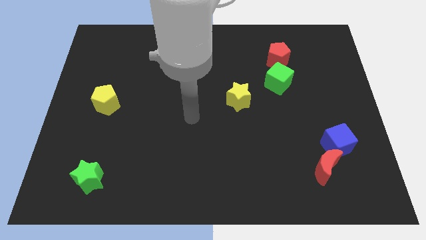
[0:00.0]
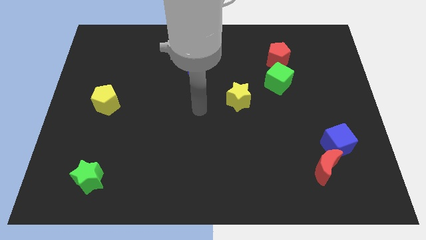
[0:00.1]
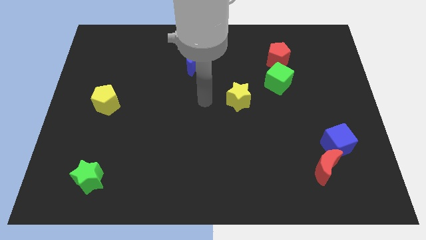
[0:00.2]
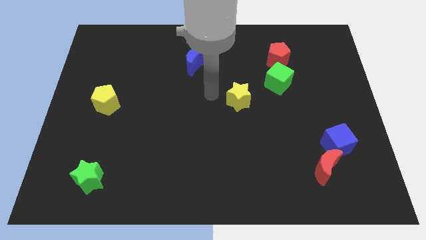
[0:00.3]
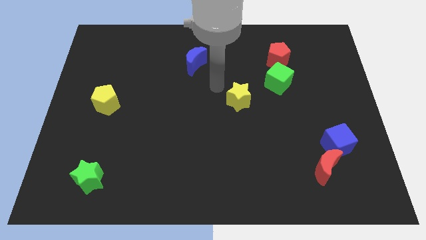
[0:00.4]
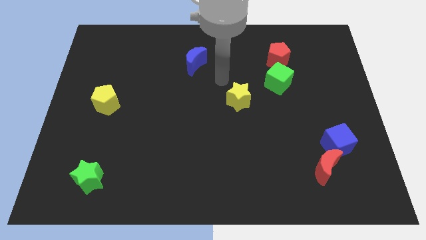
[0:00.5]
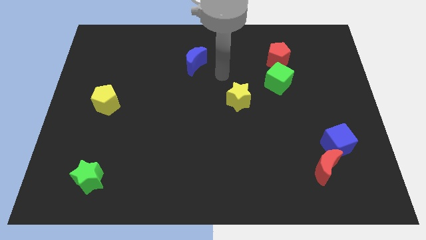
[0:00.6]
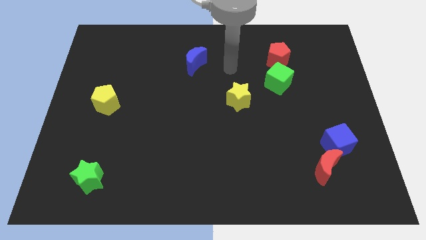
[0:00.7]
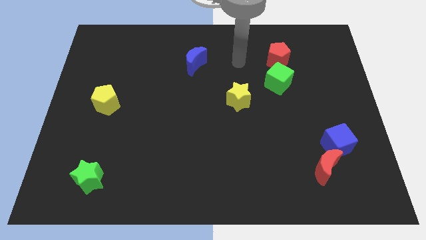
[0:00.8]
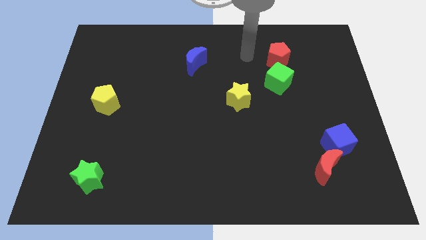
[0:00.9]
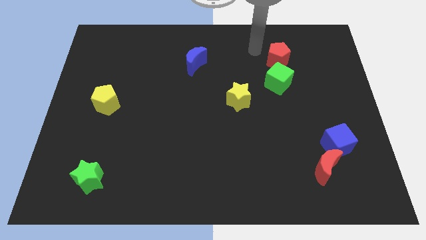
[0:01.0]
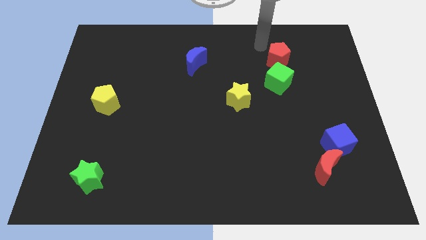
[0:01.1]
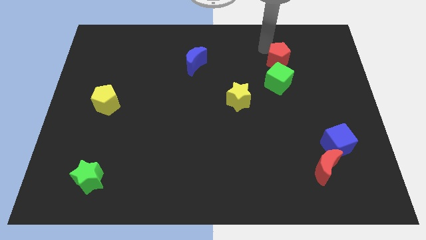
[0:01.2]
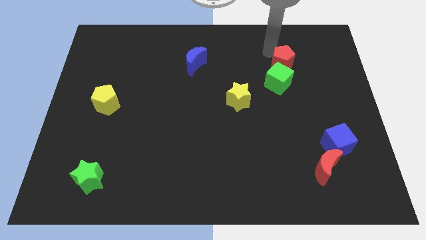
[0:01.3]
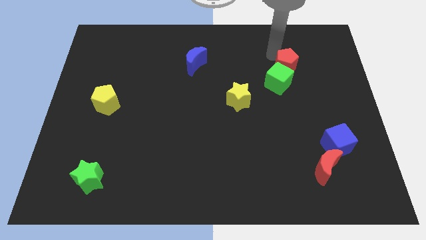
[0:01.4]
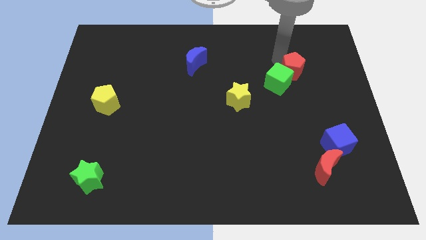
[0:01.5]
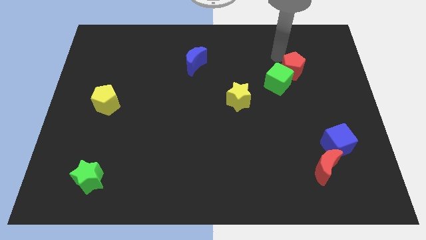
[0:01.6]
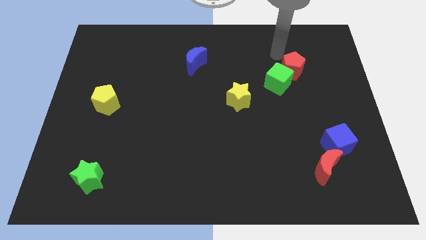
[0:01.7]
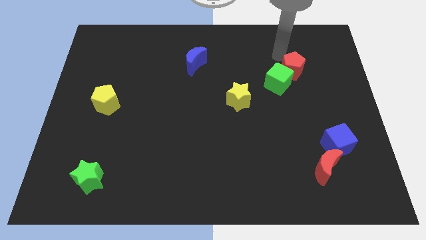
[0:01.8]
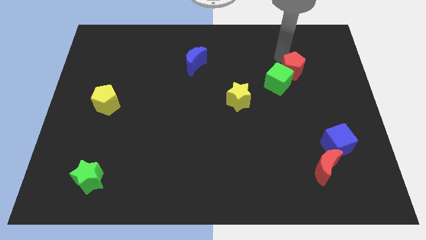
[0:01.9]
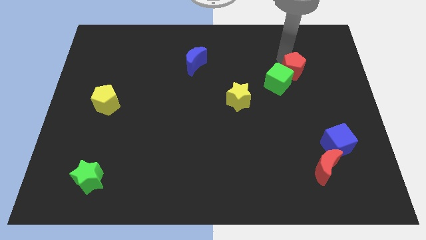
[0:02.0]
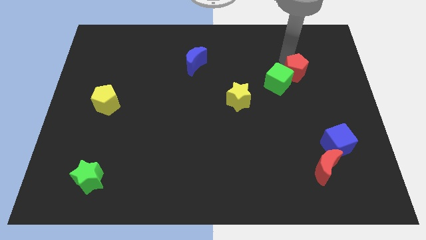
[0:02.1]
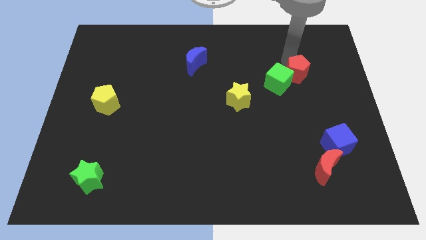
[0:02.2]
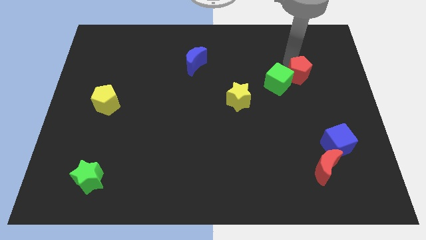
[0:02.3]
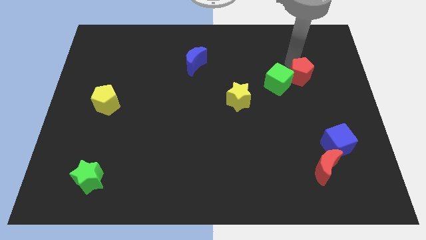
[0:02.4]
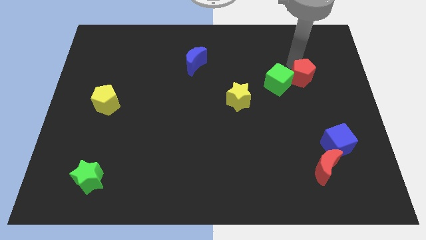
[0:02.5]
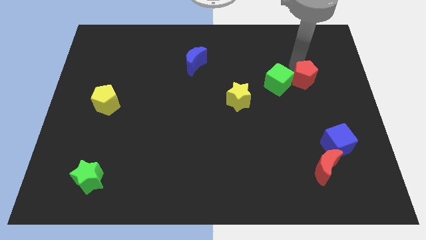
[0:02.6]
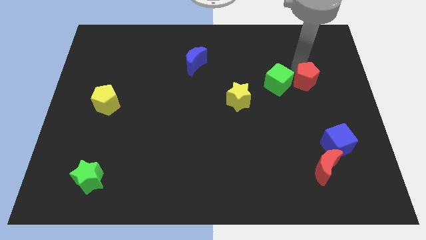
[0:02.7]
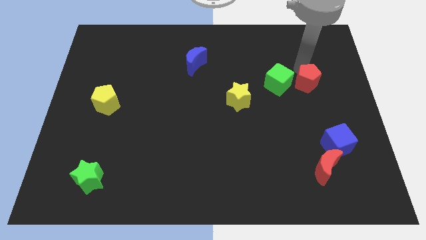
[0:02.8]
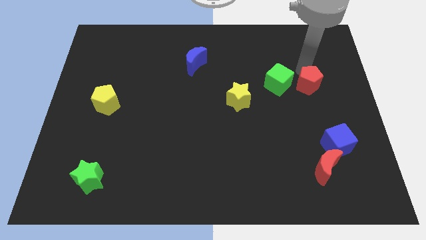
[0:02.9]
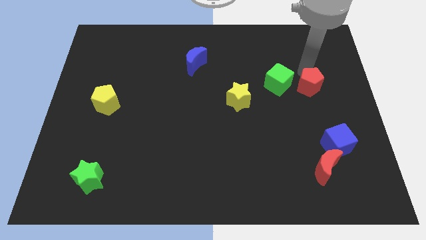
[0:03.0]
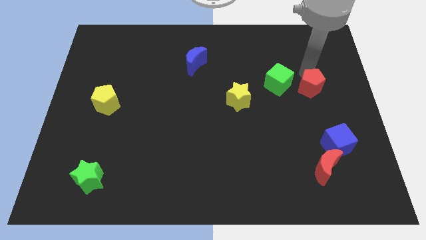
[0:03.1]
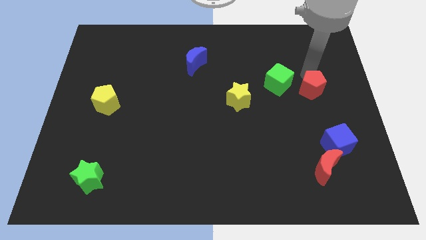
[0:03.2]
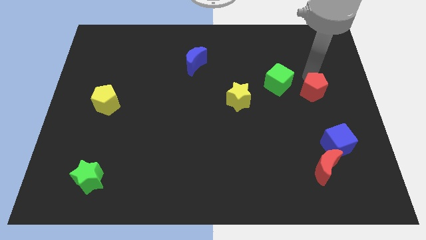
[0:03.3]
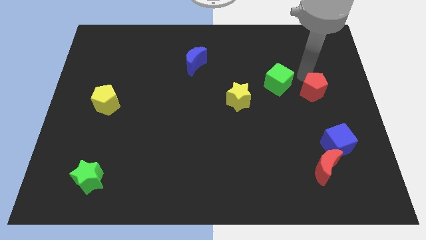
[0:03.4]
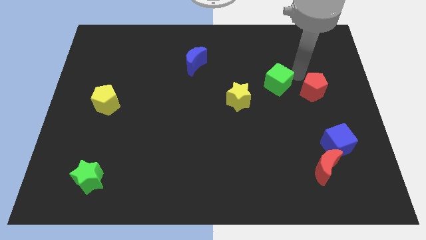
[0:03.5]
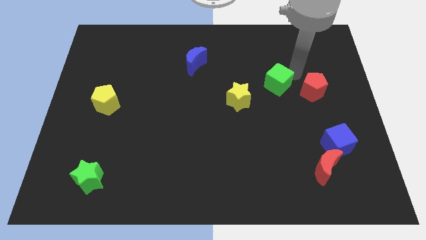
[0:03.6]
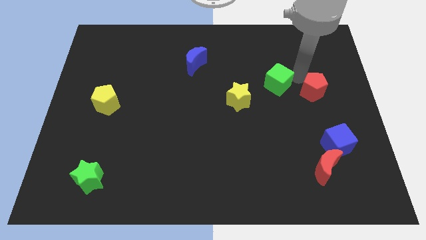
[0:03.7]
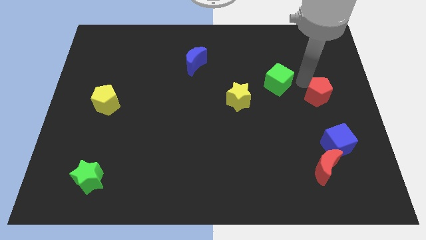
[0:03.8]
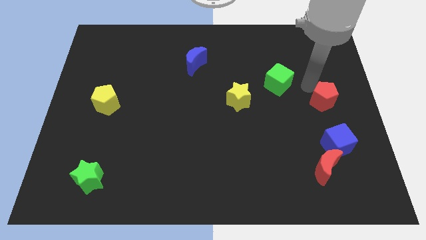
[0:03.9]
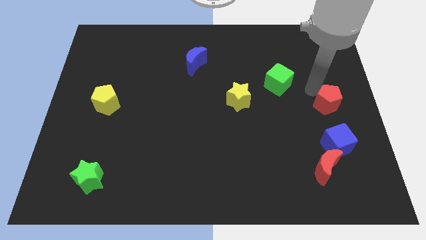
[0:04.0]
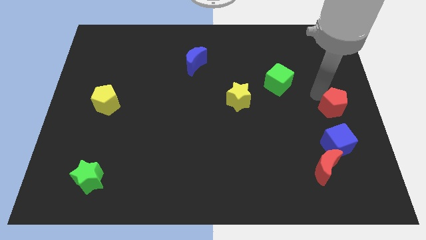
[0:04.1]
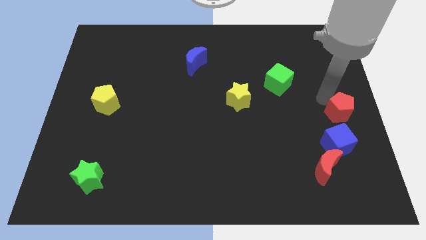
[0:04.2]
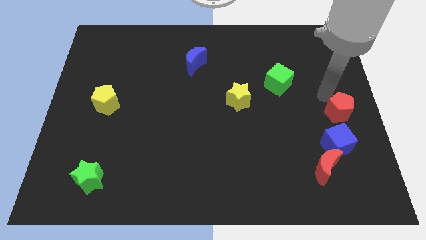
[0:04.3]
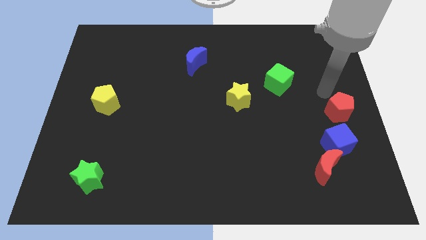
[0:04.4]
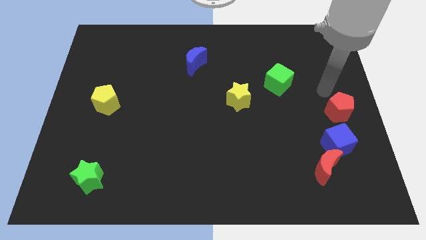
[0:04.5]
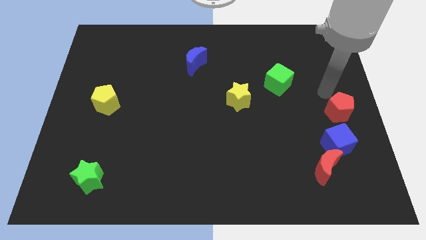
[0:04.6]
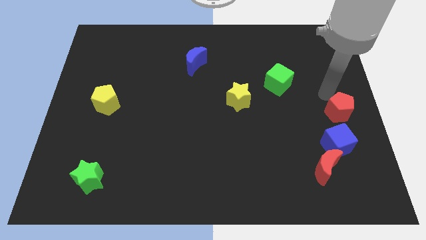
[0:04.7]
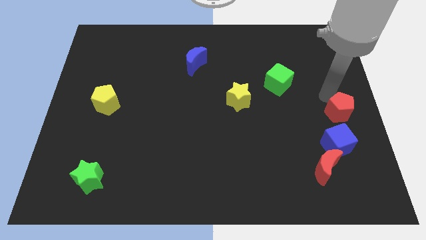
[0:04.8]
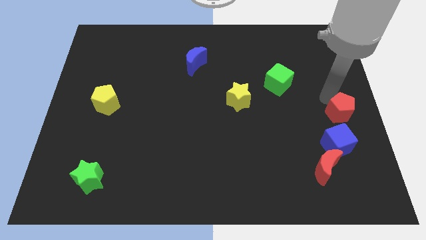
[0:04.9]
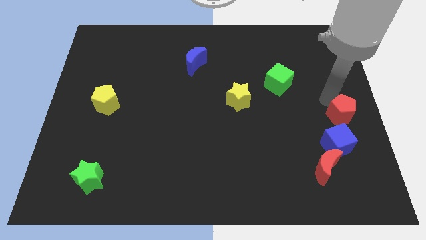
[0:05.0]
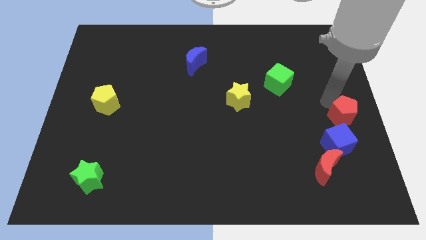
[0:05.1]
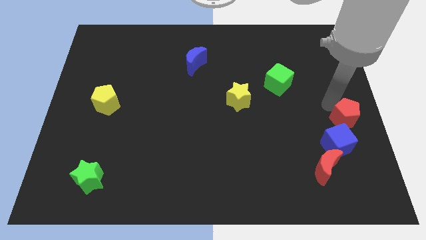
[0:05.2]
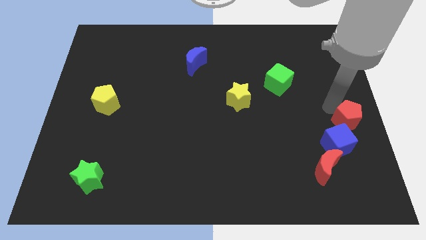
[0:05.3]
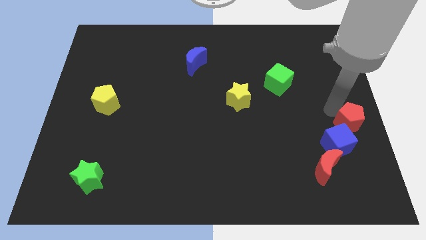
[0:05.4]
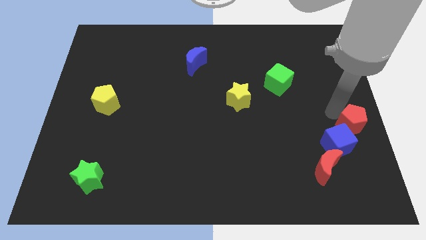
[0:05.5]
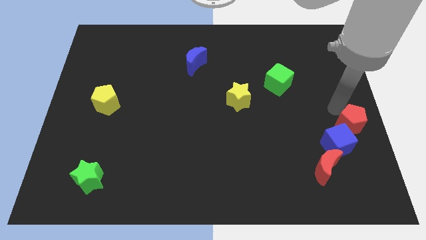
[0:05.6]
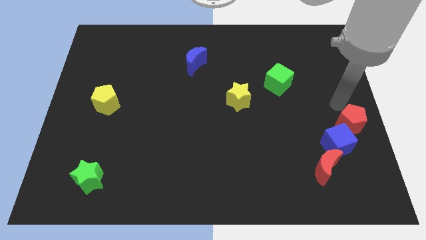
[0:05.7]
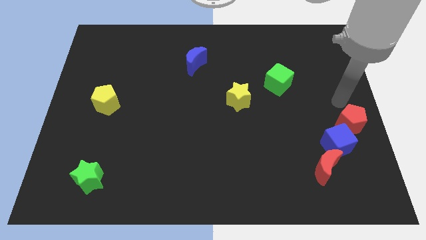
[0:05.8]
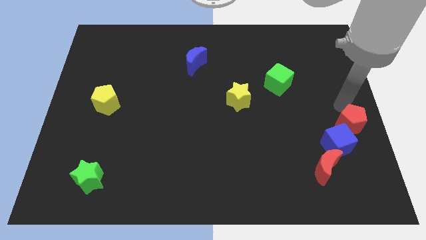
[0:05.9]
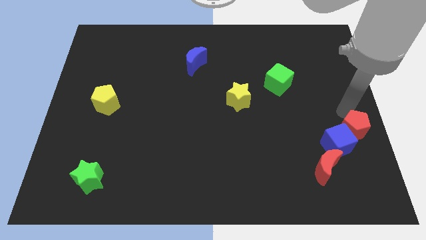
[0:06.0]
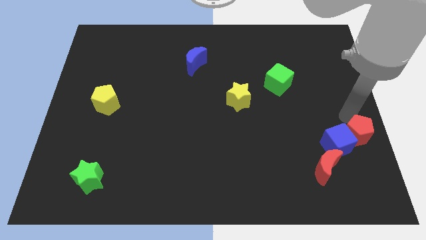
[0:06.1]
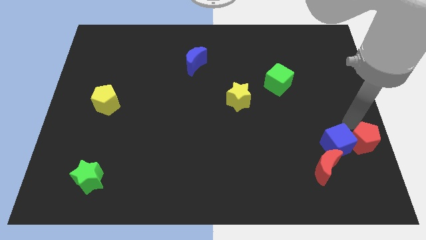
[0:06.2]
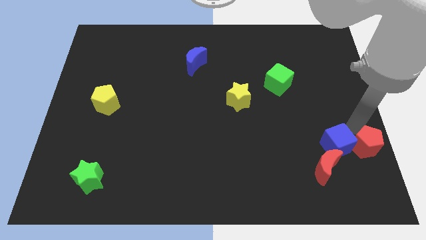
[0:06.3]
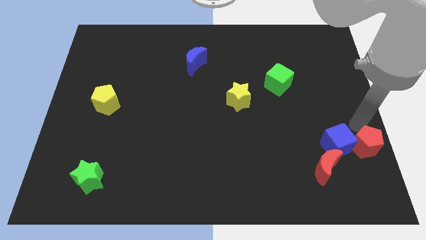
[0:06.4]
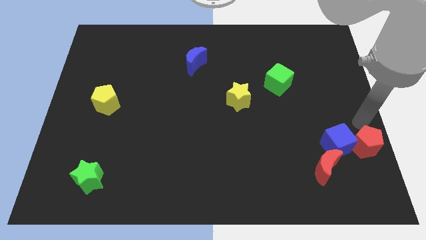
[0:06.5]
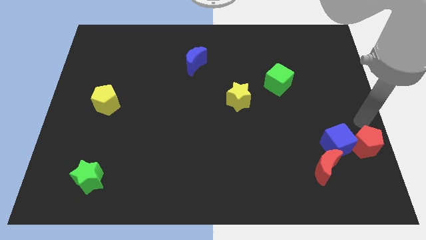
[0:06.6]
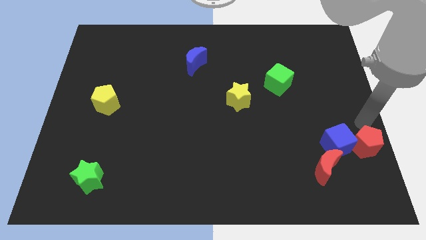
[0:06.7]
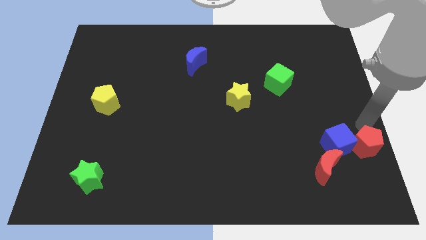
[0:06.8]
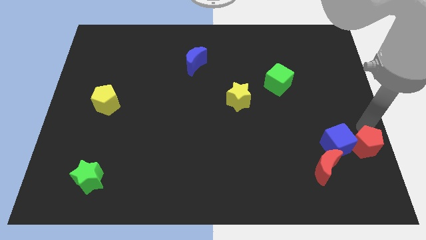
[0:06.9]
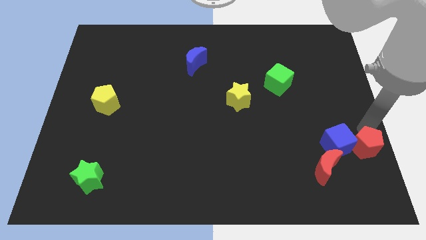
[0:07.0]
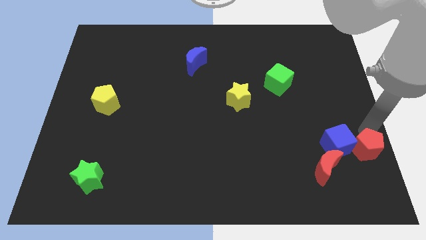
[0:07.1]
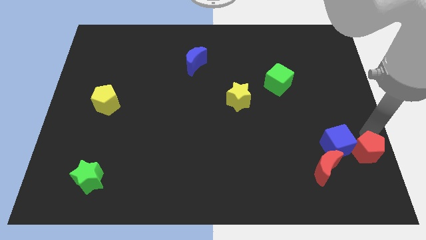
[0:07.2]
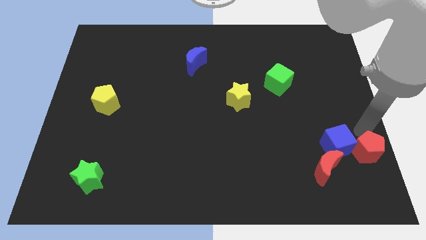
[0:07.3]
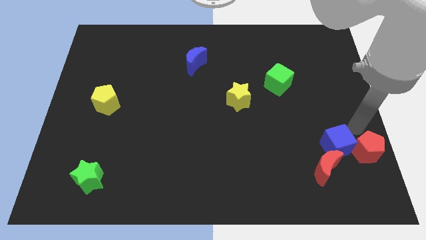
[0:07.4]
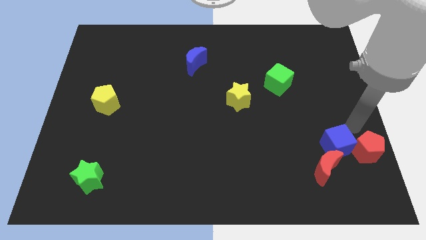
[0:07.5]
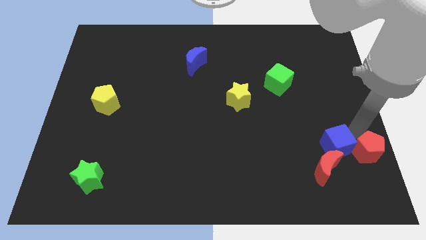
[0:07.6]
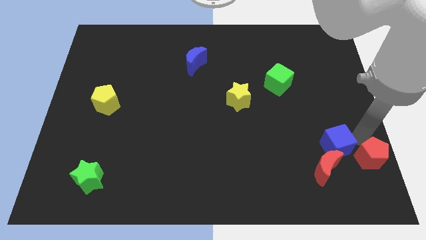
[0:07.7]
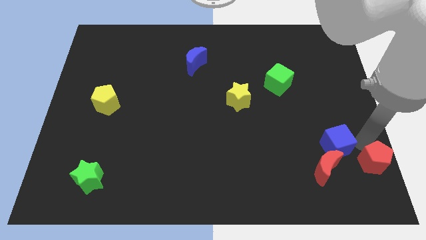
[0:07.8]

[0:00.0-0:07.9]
slide the red pentagon to the bottom right
